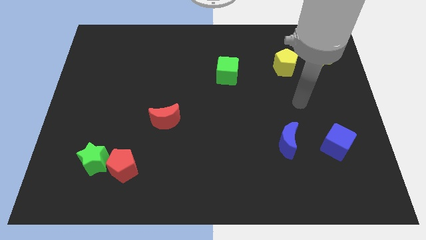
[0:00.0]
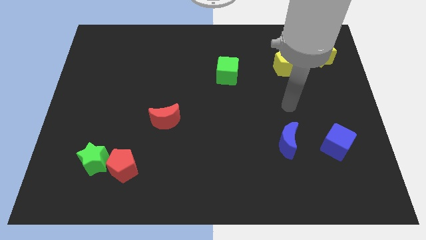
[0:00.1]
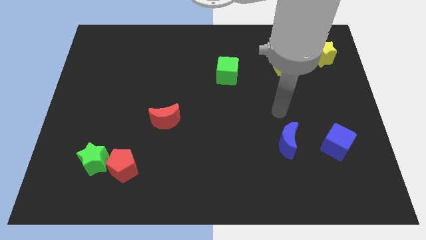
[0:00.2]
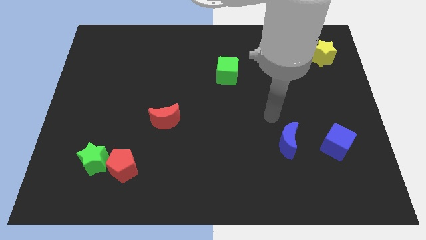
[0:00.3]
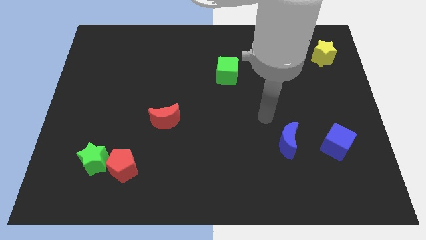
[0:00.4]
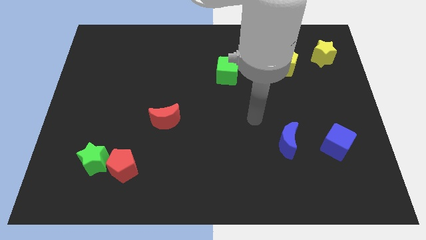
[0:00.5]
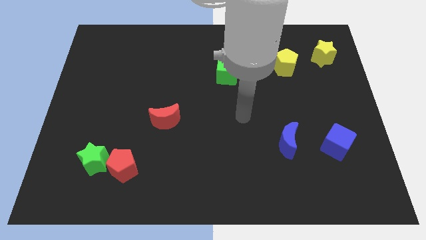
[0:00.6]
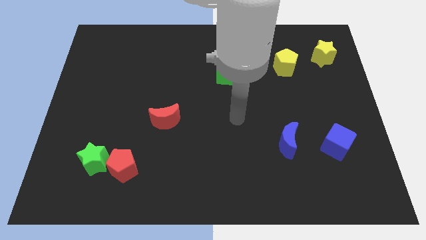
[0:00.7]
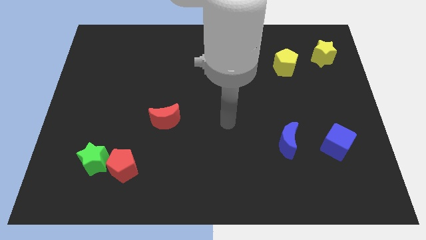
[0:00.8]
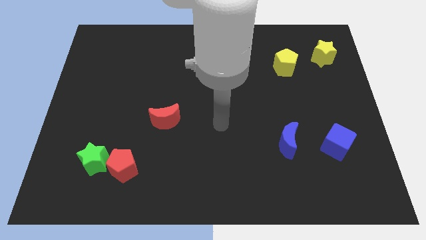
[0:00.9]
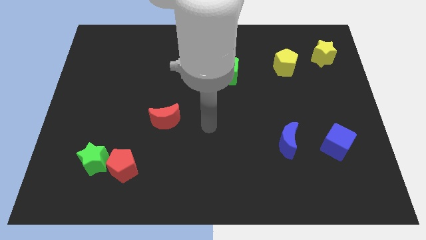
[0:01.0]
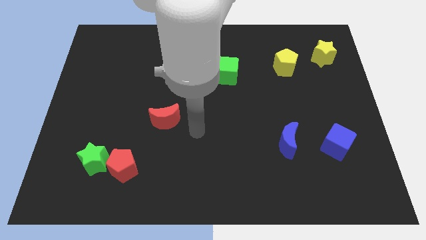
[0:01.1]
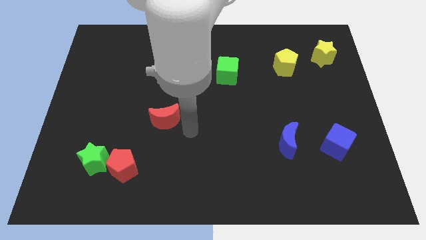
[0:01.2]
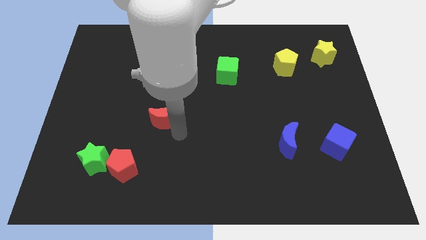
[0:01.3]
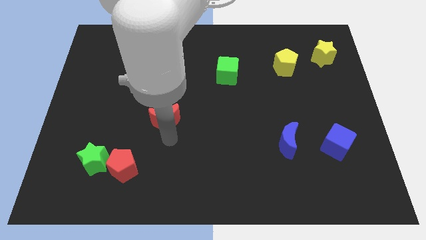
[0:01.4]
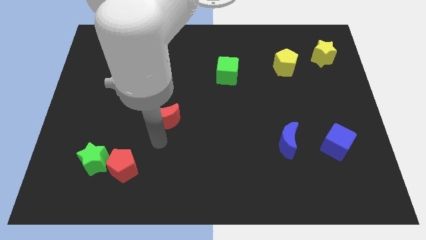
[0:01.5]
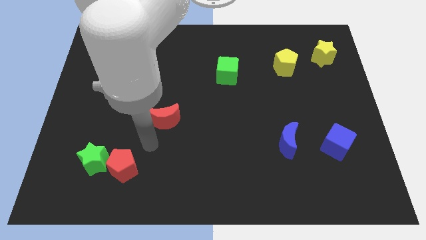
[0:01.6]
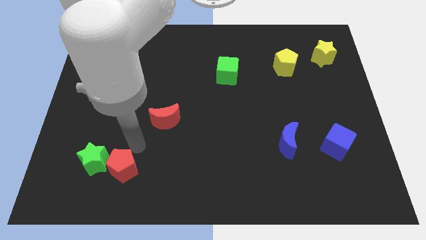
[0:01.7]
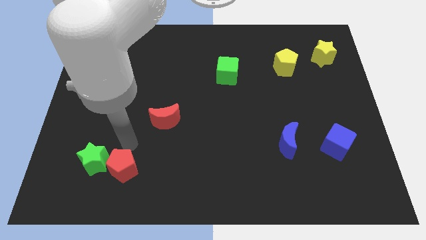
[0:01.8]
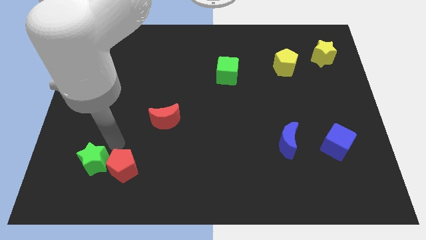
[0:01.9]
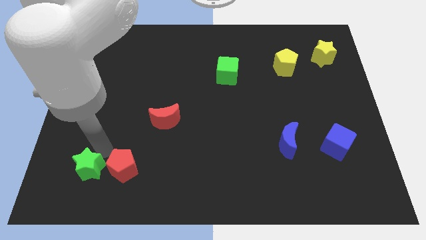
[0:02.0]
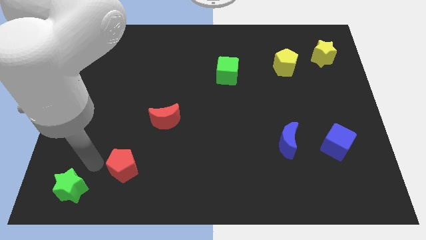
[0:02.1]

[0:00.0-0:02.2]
separate the red pentagon from the green star

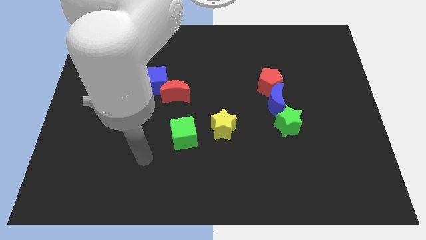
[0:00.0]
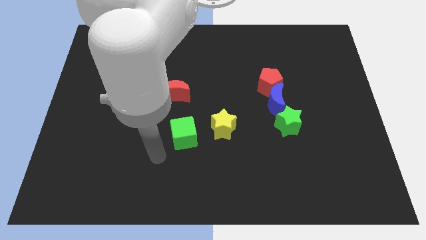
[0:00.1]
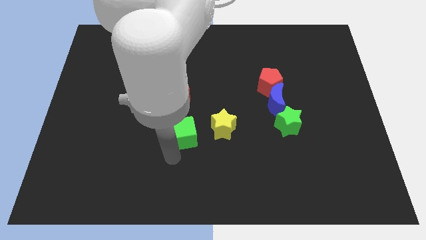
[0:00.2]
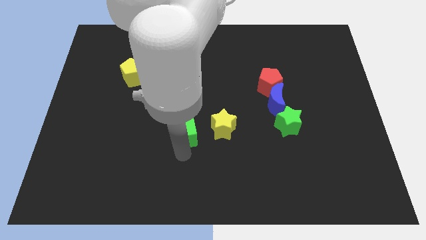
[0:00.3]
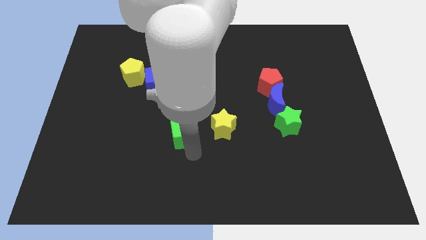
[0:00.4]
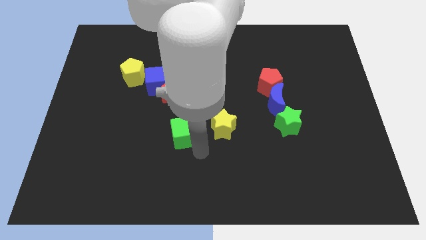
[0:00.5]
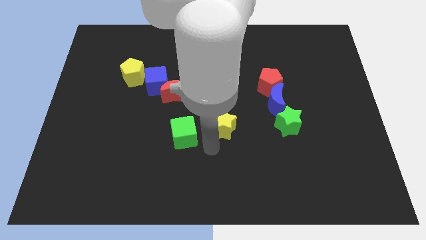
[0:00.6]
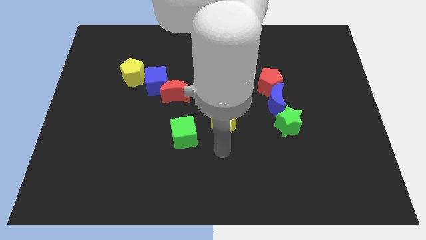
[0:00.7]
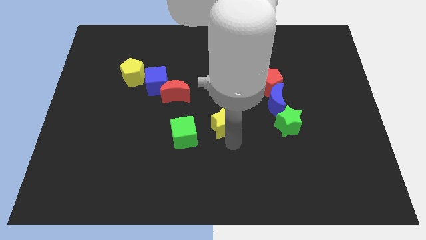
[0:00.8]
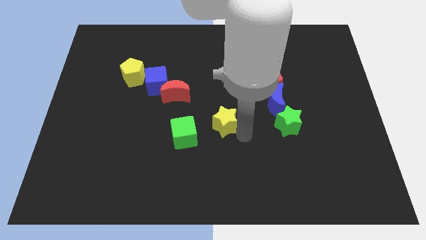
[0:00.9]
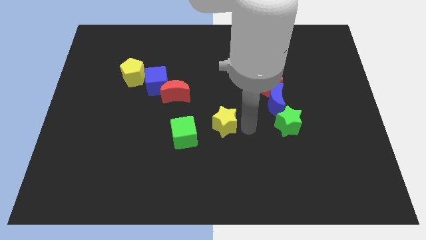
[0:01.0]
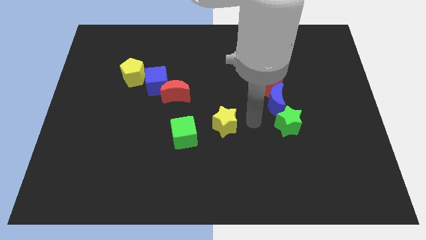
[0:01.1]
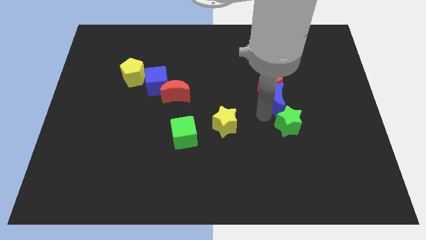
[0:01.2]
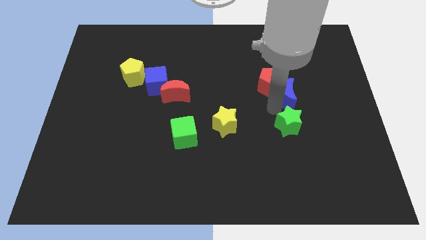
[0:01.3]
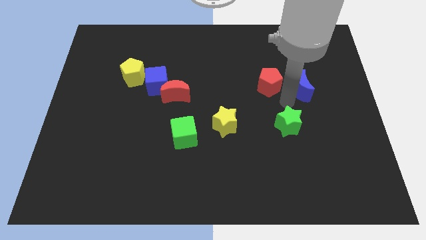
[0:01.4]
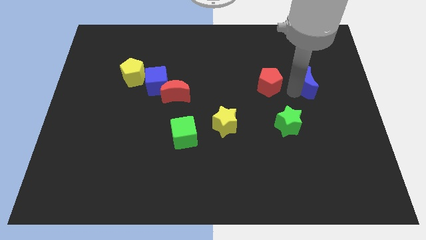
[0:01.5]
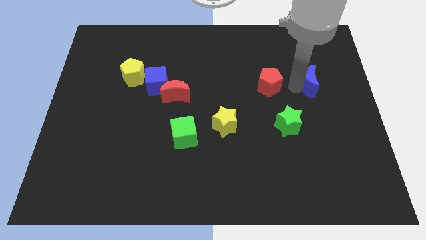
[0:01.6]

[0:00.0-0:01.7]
move the red pentagon away from the blue moon

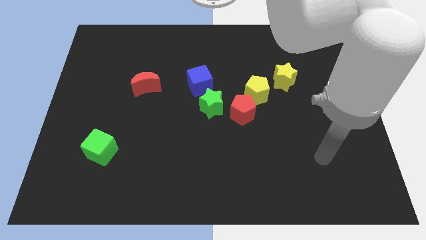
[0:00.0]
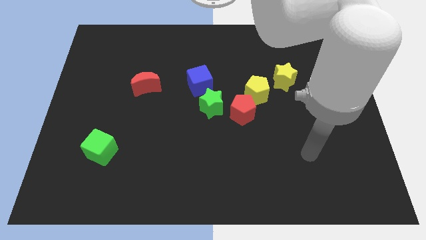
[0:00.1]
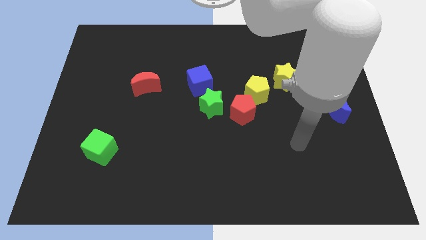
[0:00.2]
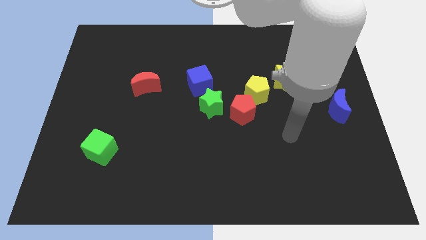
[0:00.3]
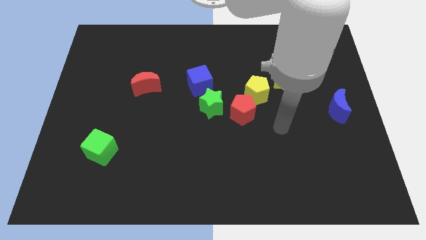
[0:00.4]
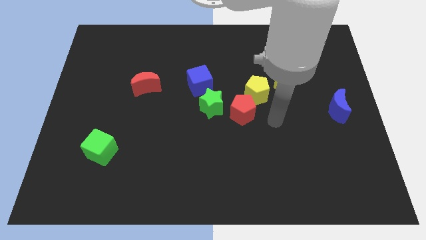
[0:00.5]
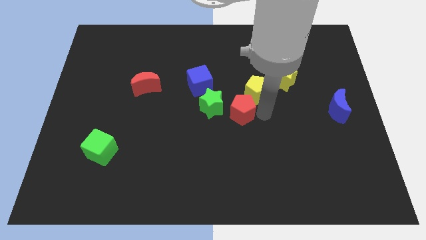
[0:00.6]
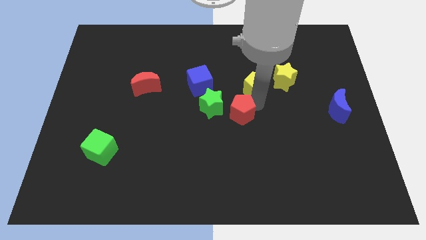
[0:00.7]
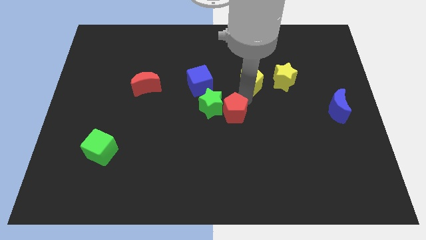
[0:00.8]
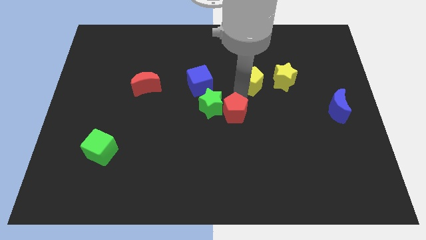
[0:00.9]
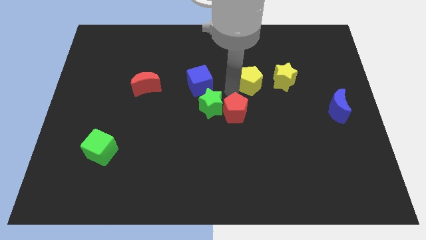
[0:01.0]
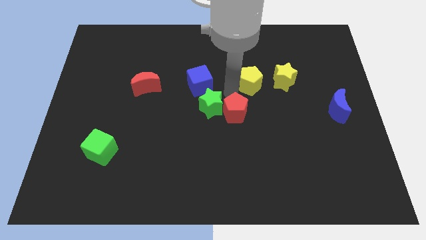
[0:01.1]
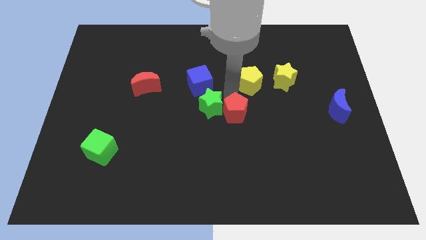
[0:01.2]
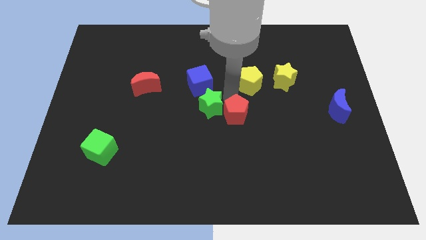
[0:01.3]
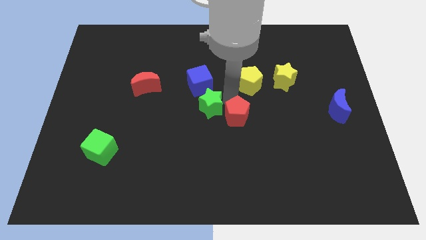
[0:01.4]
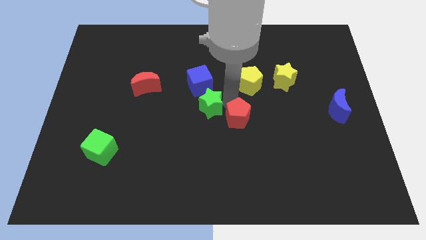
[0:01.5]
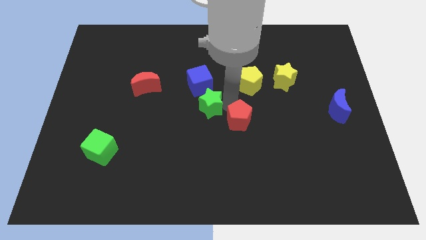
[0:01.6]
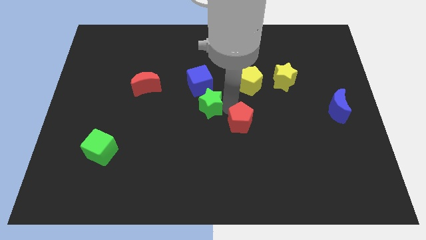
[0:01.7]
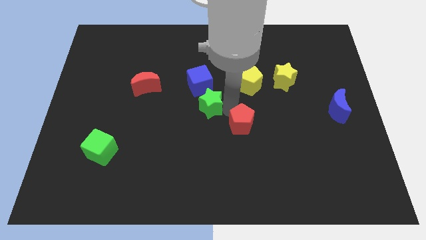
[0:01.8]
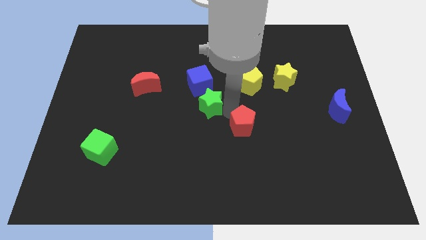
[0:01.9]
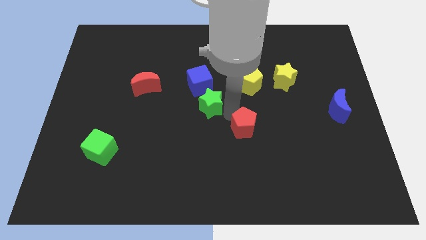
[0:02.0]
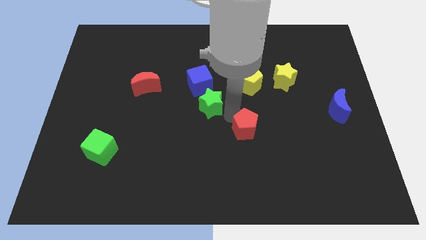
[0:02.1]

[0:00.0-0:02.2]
pull the red pentagon apart from the yellow pentagon and green star

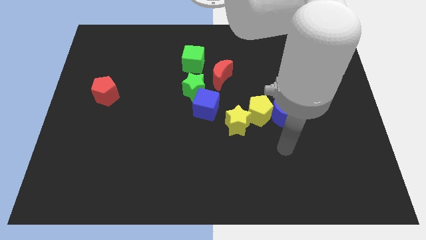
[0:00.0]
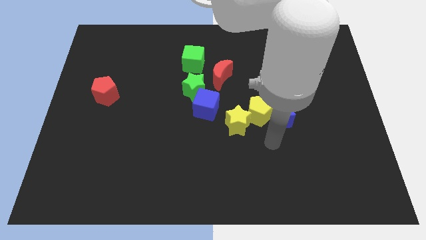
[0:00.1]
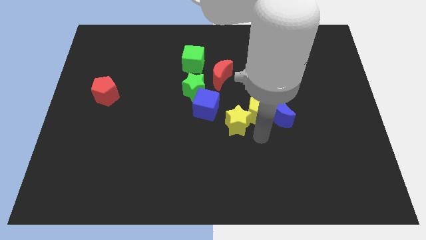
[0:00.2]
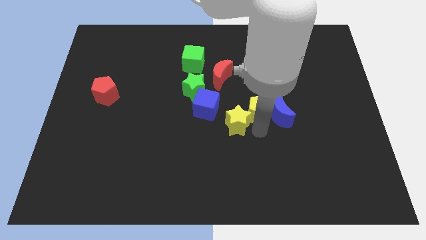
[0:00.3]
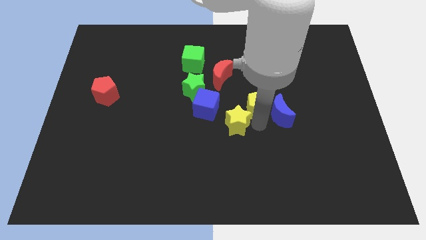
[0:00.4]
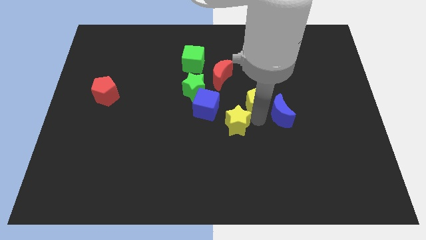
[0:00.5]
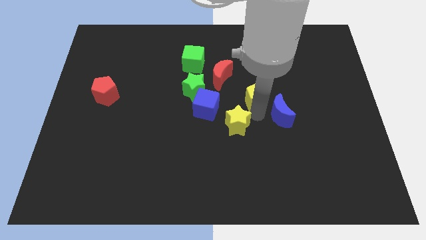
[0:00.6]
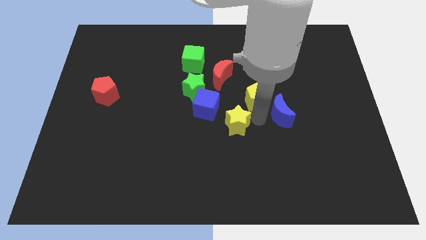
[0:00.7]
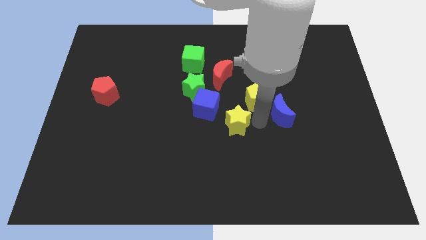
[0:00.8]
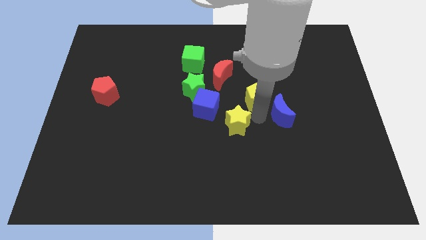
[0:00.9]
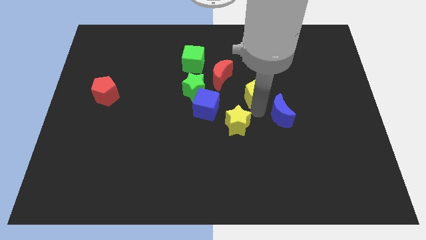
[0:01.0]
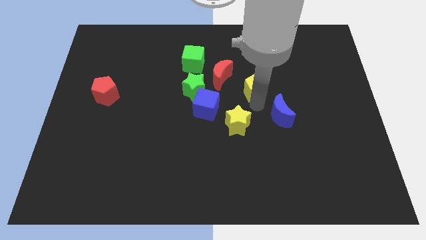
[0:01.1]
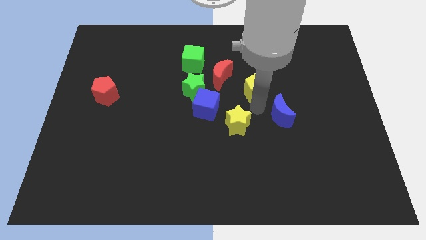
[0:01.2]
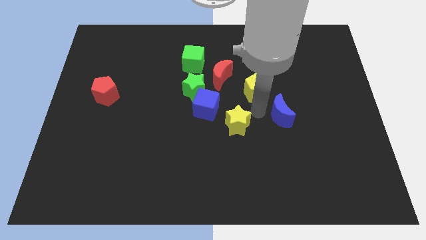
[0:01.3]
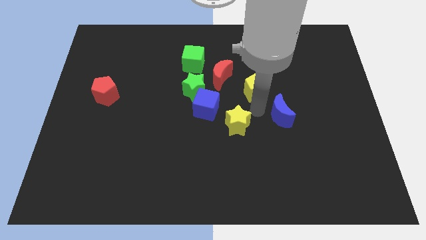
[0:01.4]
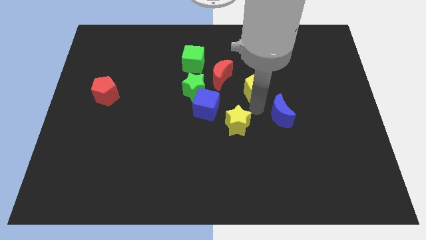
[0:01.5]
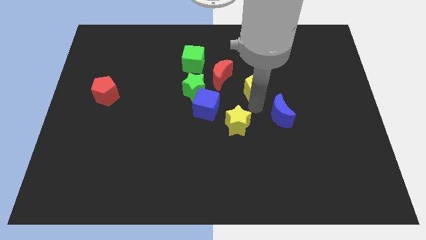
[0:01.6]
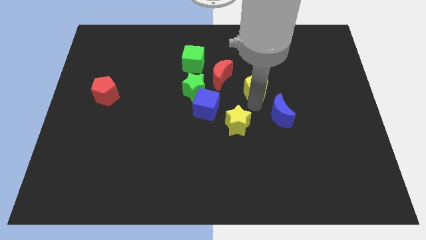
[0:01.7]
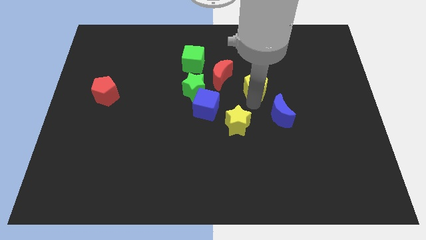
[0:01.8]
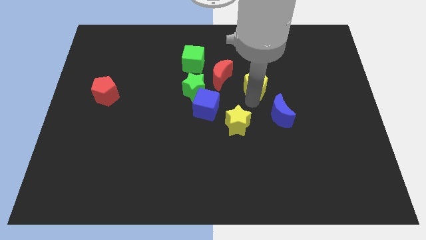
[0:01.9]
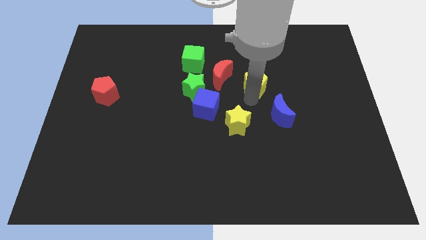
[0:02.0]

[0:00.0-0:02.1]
pull the yellow pentagon apart from the blue moon and yellow star

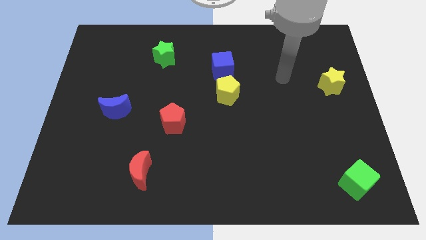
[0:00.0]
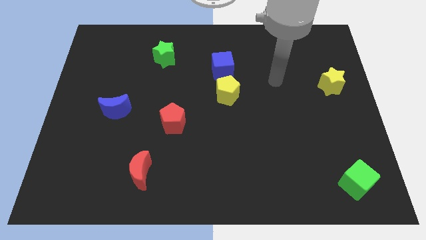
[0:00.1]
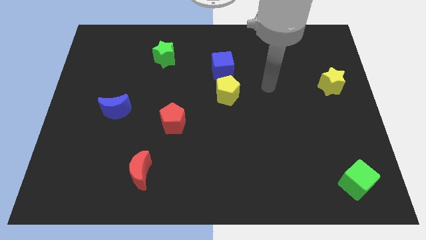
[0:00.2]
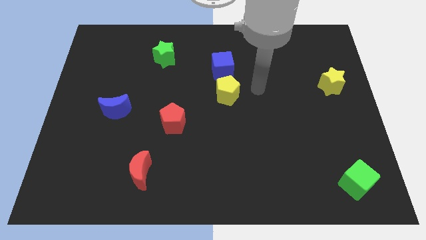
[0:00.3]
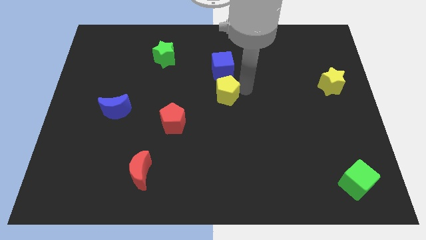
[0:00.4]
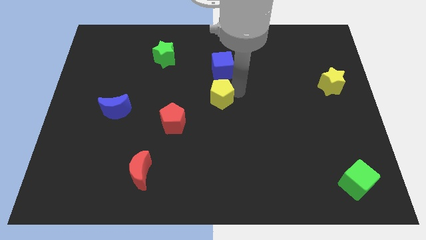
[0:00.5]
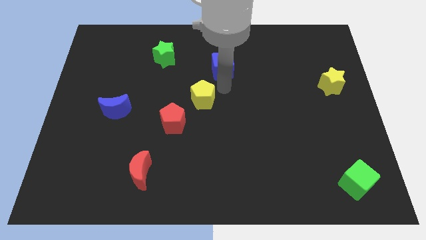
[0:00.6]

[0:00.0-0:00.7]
move the blue cube away from the yellow pentagon

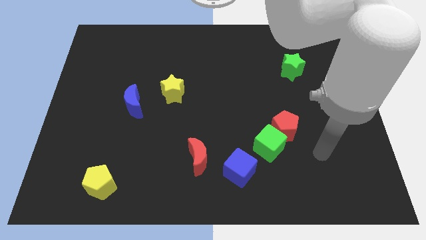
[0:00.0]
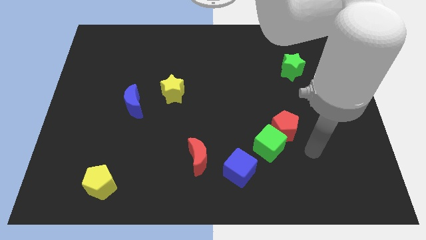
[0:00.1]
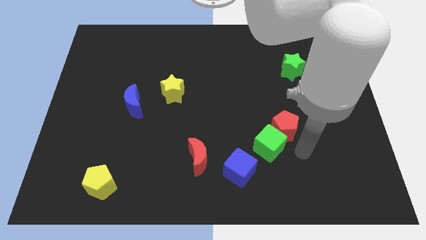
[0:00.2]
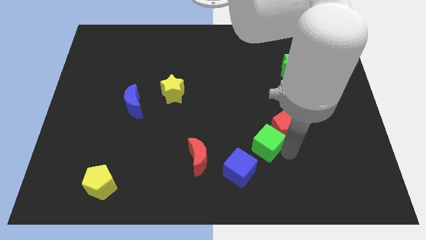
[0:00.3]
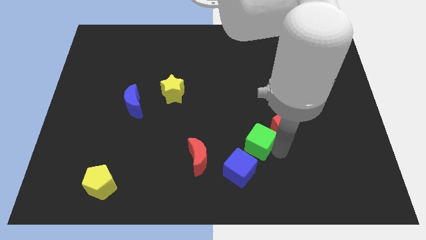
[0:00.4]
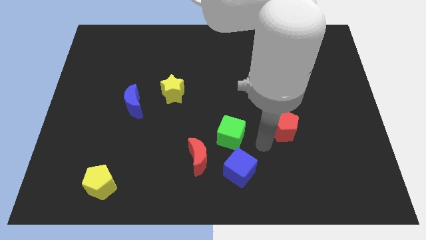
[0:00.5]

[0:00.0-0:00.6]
separate the red pentagon from the green cube
